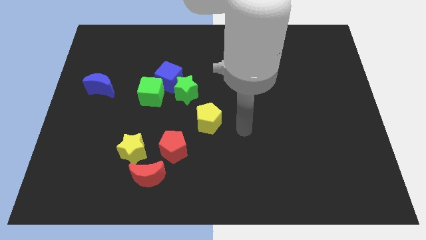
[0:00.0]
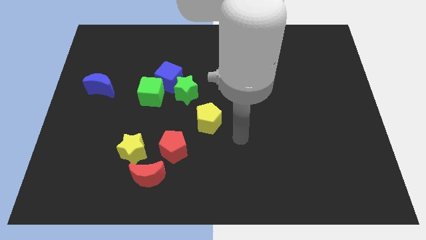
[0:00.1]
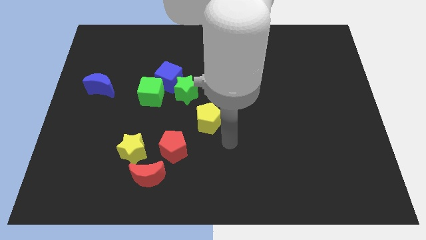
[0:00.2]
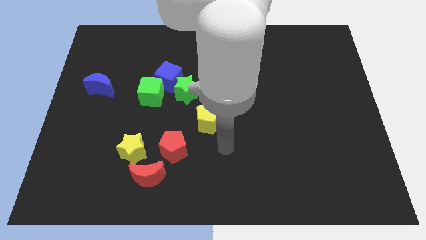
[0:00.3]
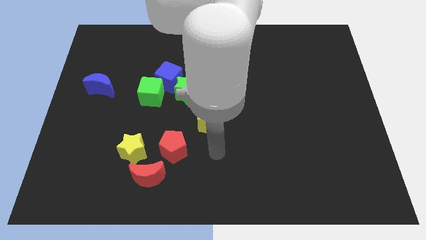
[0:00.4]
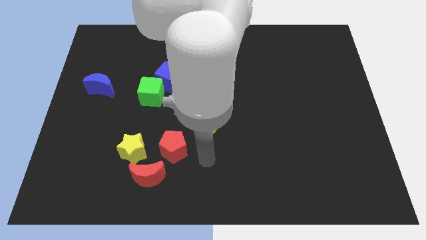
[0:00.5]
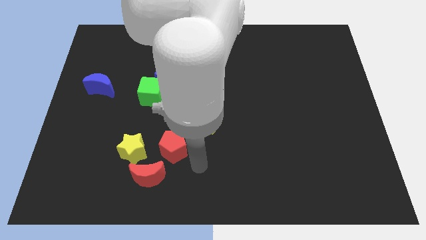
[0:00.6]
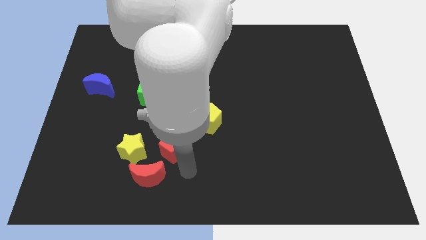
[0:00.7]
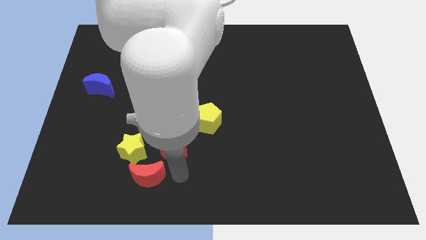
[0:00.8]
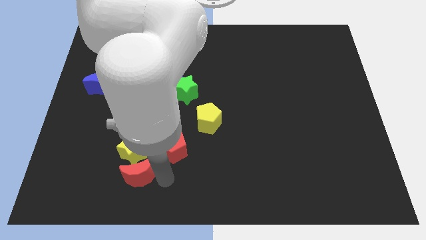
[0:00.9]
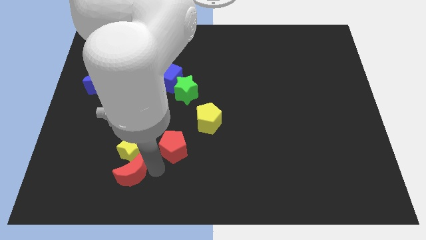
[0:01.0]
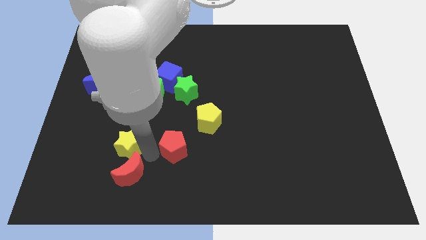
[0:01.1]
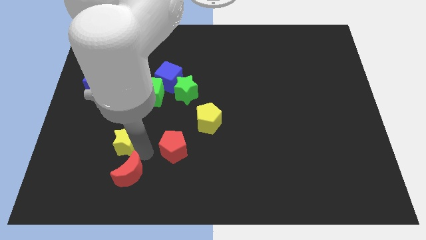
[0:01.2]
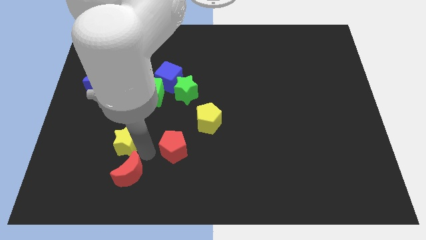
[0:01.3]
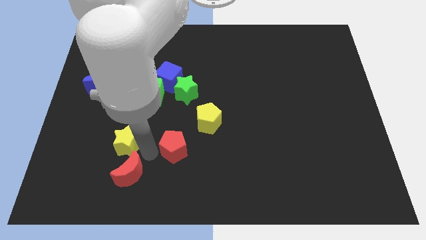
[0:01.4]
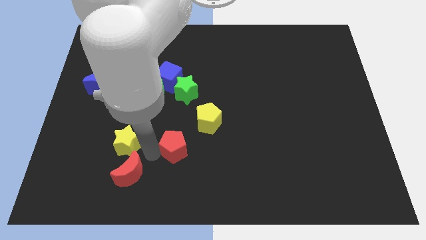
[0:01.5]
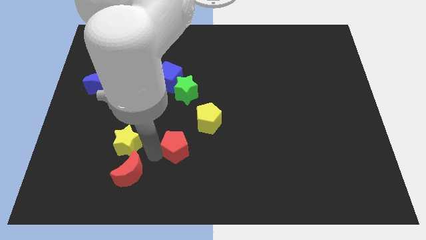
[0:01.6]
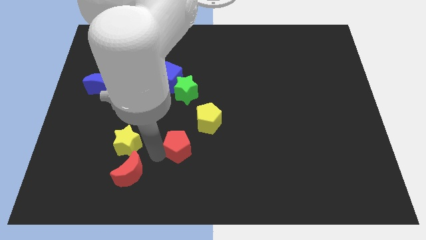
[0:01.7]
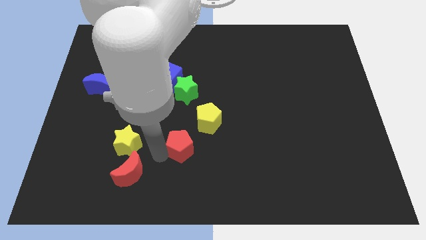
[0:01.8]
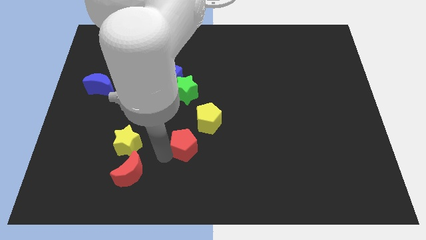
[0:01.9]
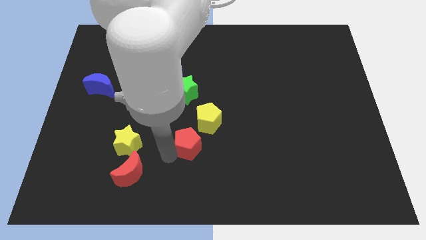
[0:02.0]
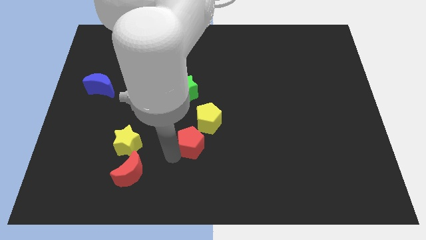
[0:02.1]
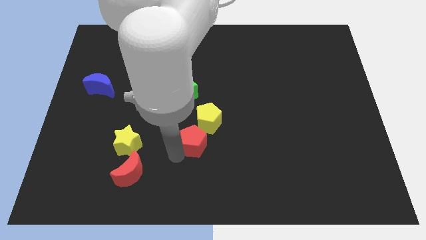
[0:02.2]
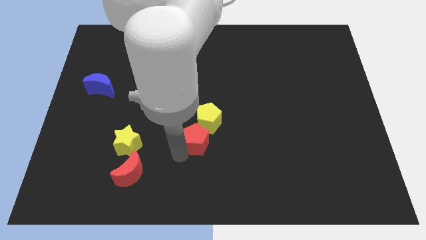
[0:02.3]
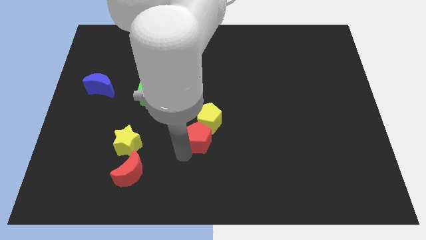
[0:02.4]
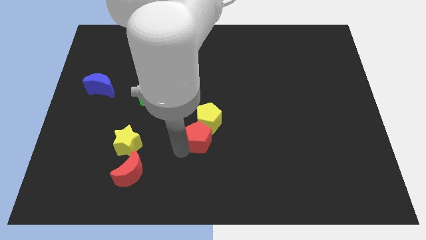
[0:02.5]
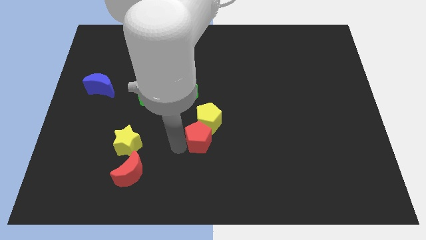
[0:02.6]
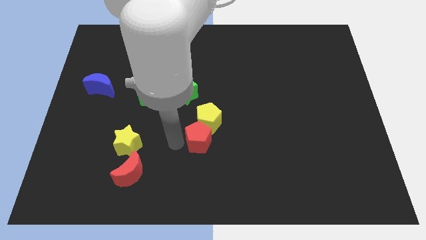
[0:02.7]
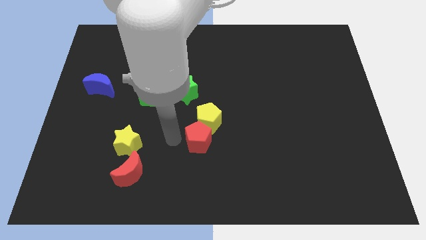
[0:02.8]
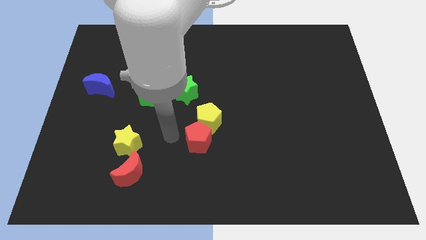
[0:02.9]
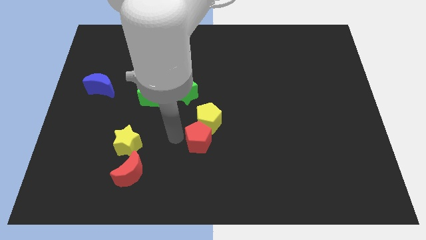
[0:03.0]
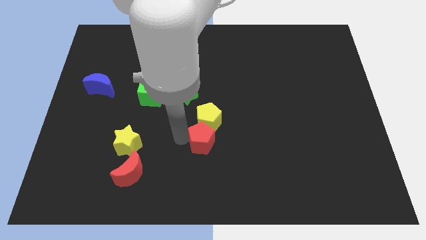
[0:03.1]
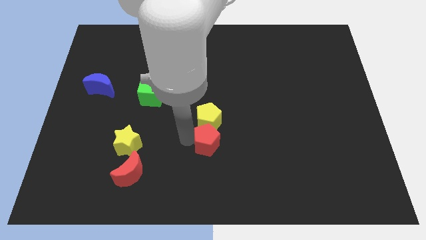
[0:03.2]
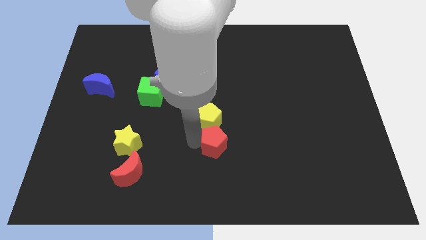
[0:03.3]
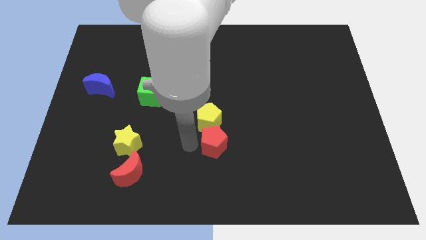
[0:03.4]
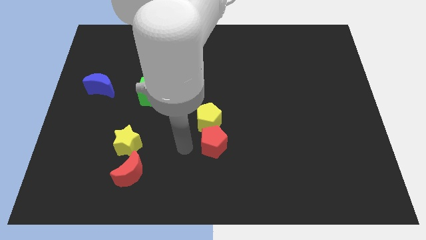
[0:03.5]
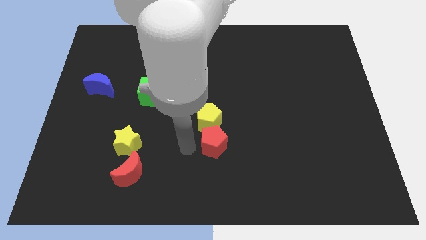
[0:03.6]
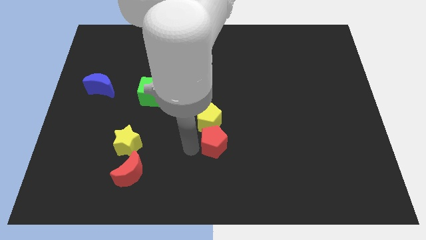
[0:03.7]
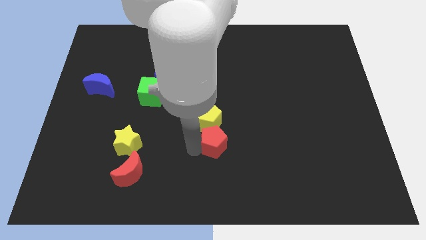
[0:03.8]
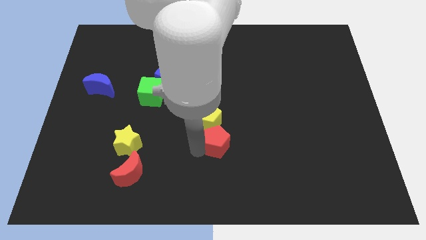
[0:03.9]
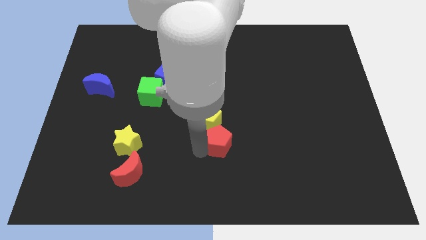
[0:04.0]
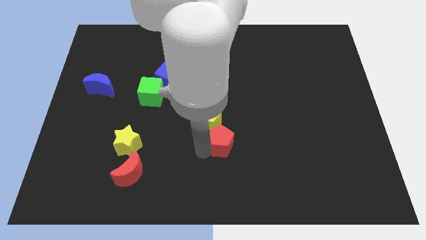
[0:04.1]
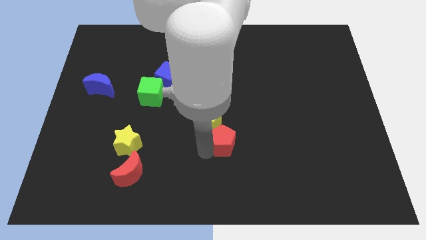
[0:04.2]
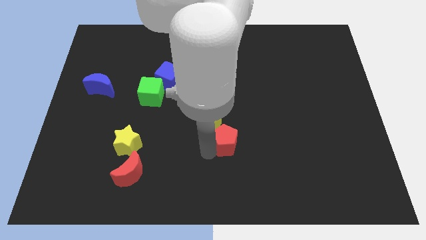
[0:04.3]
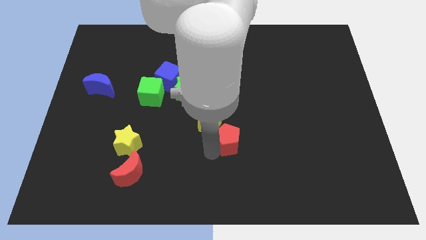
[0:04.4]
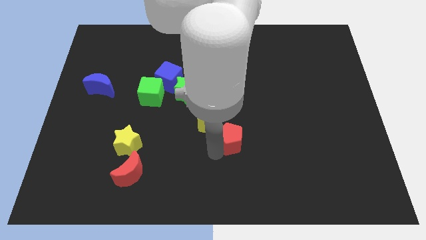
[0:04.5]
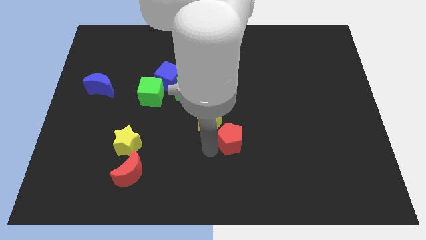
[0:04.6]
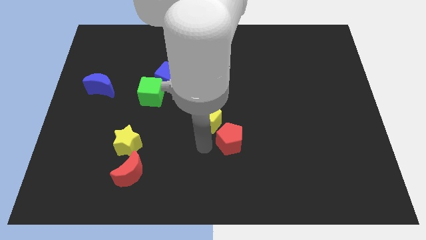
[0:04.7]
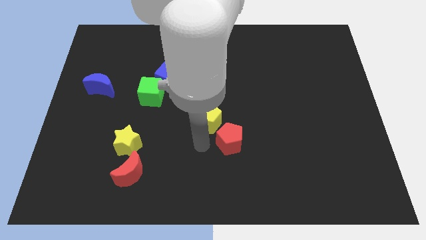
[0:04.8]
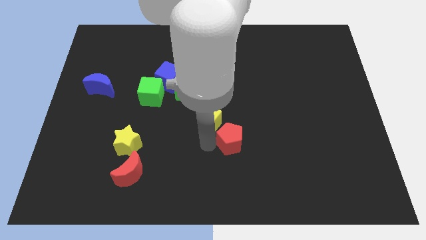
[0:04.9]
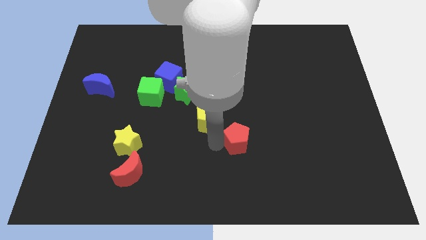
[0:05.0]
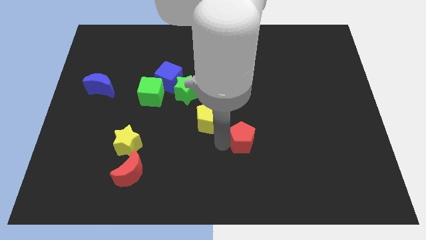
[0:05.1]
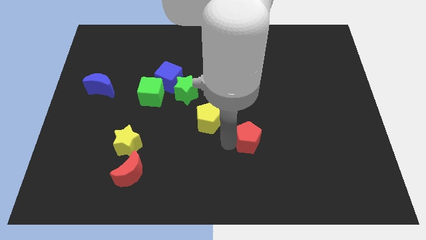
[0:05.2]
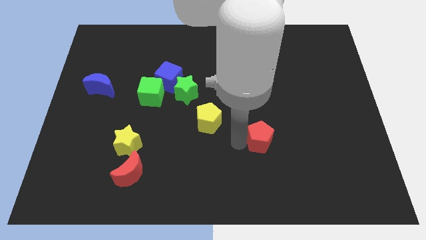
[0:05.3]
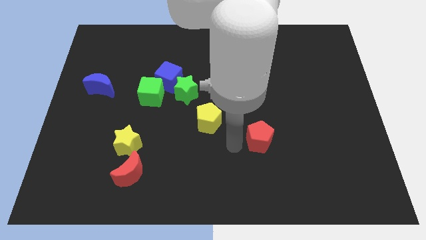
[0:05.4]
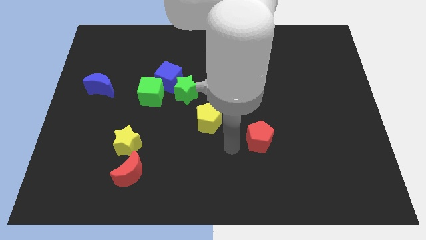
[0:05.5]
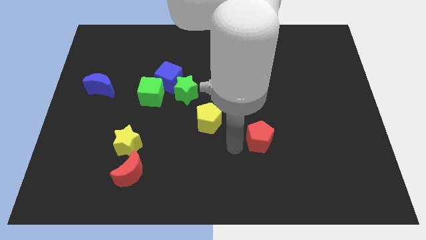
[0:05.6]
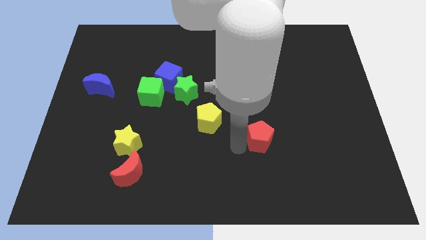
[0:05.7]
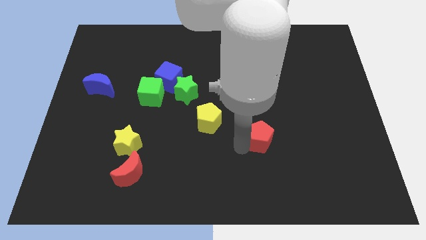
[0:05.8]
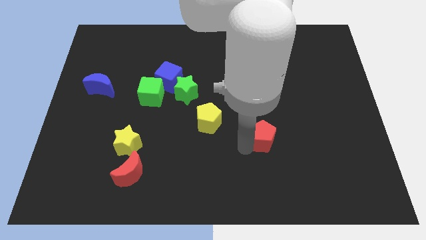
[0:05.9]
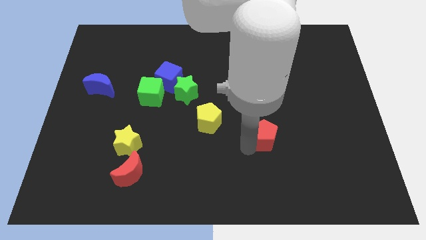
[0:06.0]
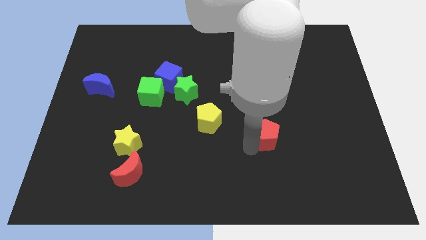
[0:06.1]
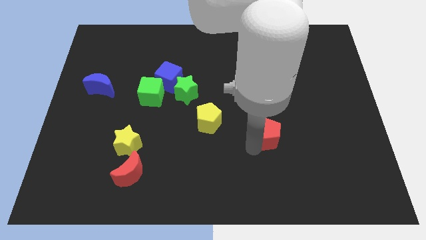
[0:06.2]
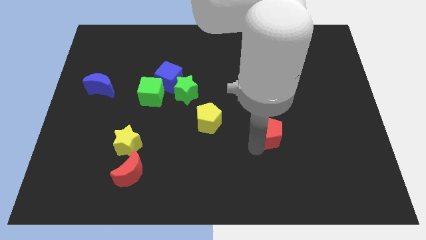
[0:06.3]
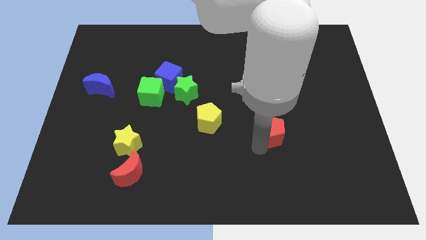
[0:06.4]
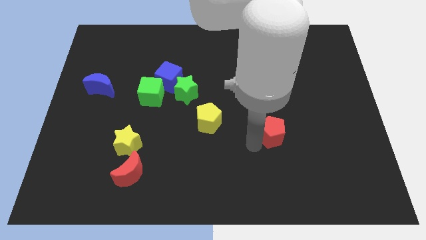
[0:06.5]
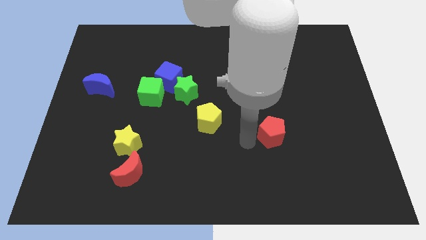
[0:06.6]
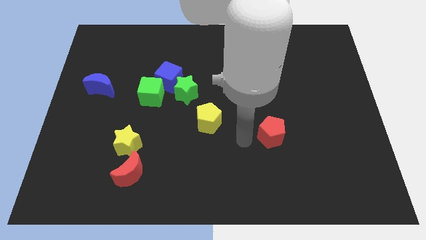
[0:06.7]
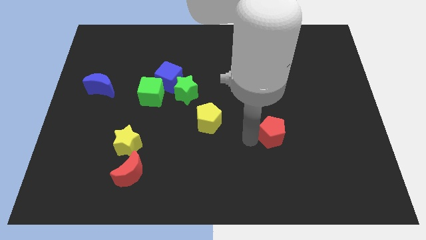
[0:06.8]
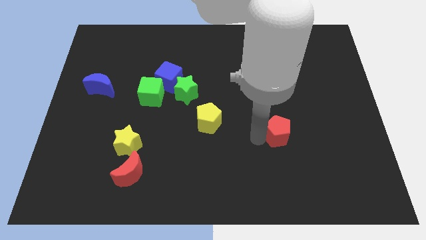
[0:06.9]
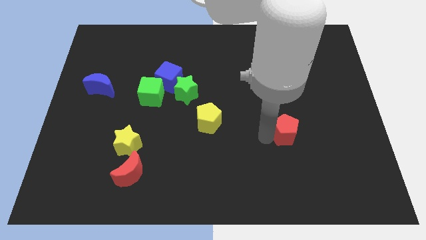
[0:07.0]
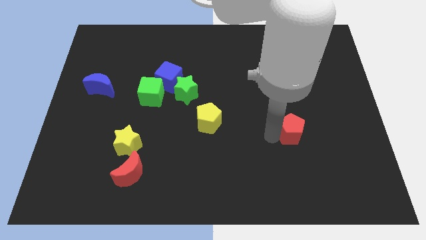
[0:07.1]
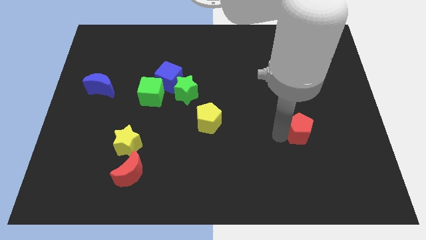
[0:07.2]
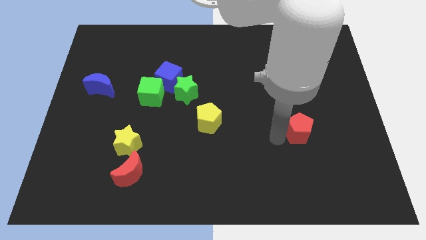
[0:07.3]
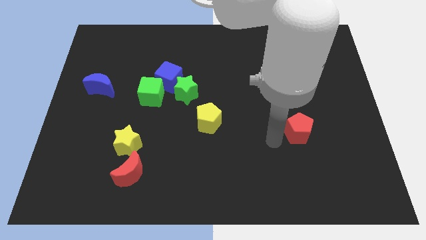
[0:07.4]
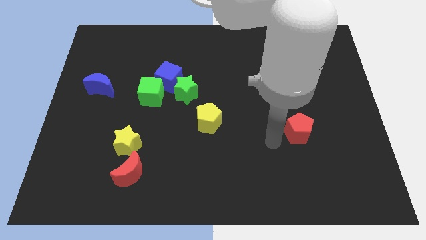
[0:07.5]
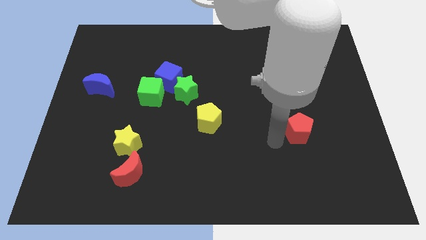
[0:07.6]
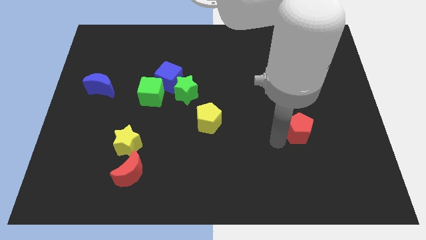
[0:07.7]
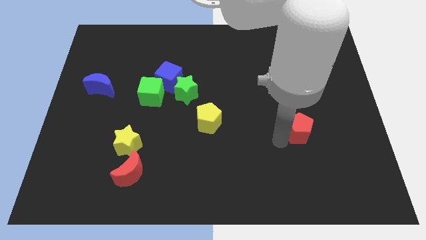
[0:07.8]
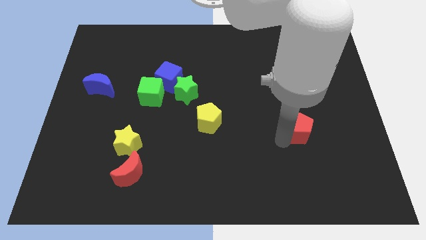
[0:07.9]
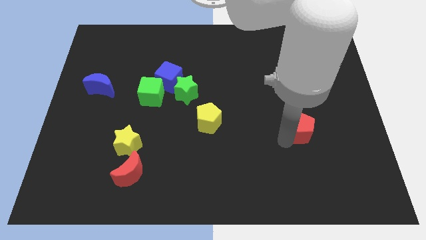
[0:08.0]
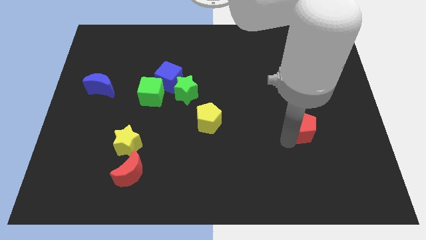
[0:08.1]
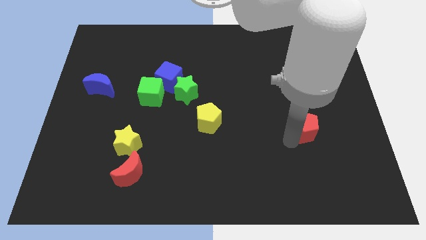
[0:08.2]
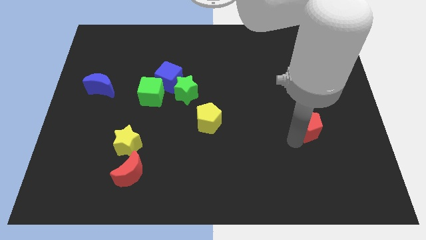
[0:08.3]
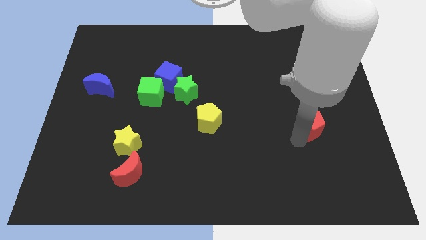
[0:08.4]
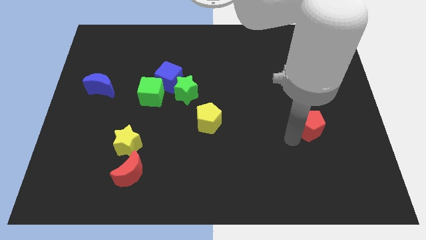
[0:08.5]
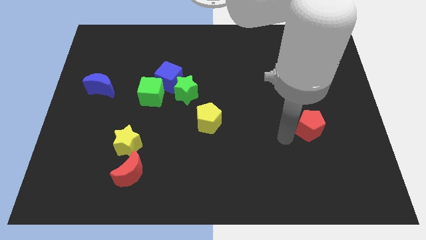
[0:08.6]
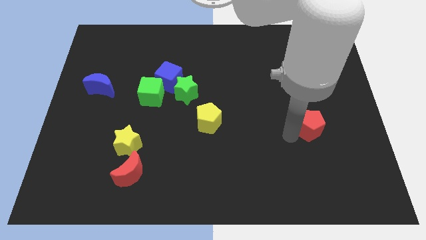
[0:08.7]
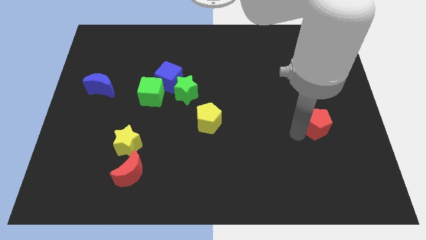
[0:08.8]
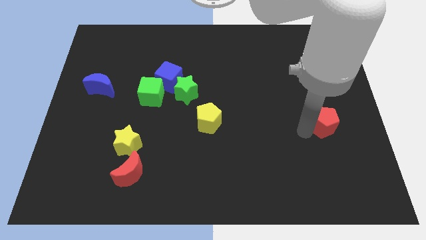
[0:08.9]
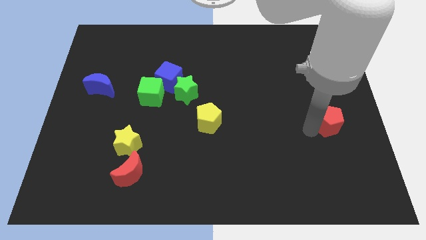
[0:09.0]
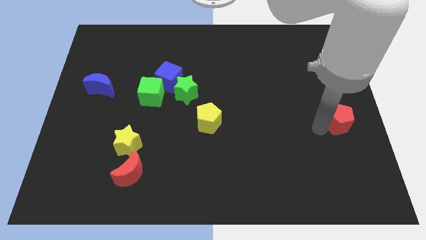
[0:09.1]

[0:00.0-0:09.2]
move the red pentagon to the center right
